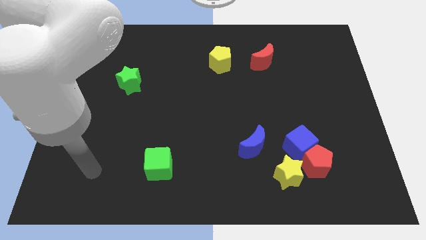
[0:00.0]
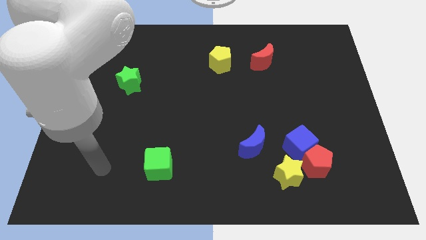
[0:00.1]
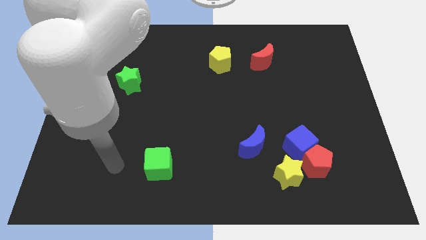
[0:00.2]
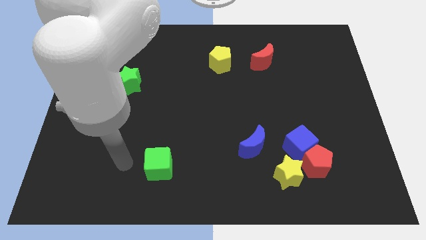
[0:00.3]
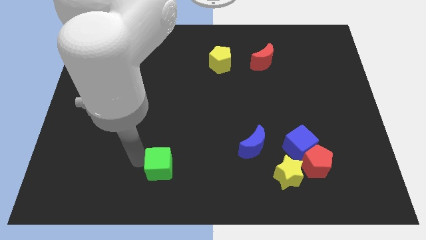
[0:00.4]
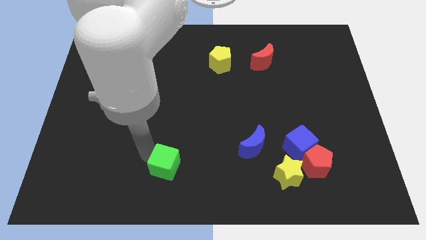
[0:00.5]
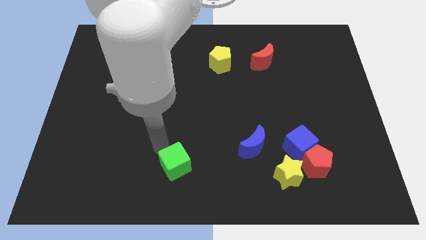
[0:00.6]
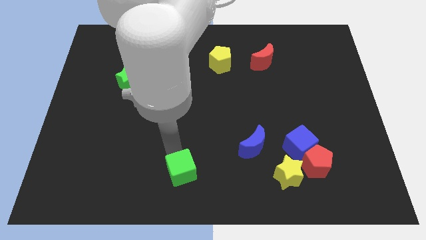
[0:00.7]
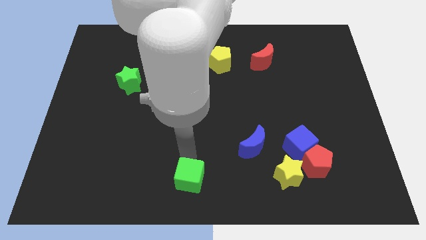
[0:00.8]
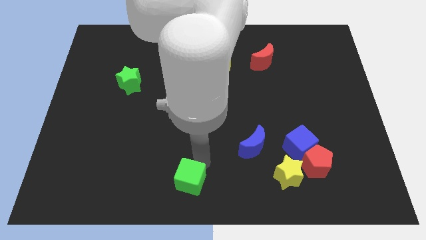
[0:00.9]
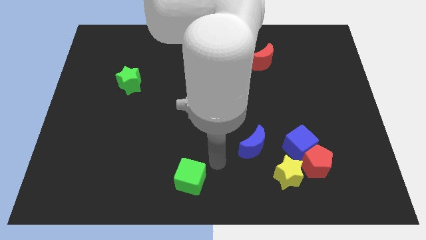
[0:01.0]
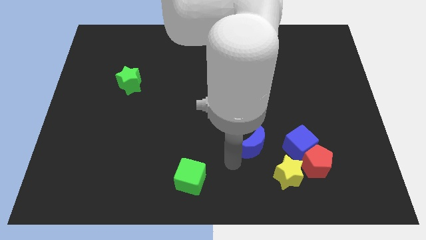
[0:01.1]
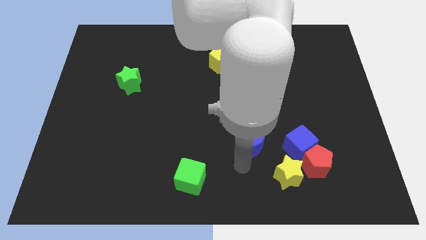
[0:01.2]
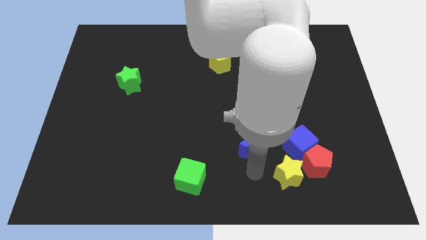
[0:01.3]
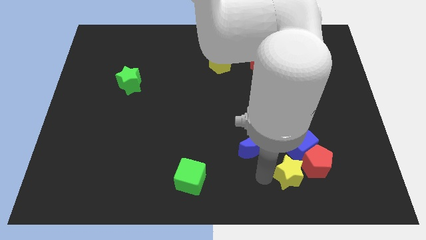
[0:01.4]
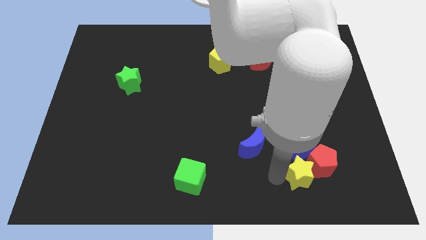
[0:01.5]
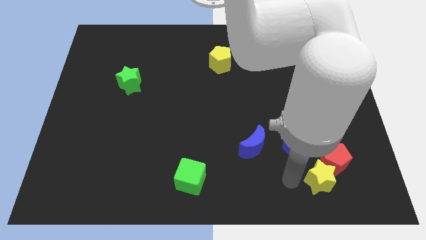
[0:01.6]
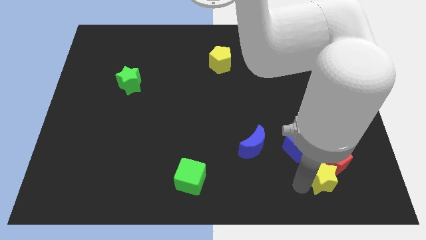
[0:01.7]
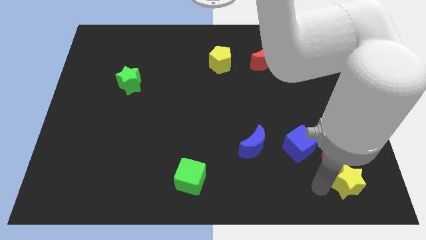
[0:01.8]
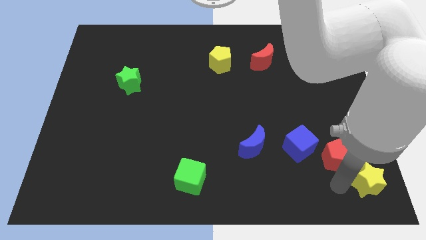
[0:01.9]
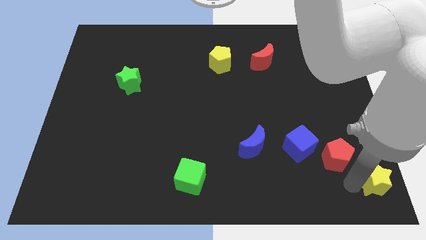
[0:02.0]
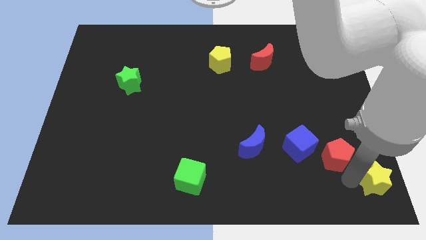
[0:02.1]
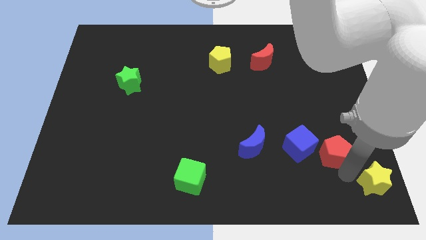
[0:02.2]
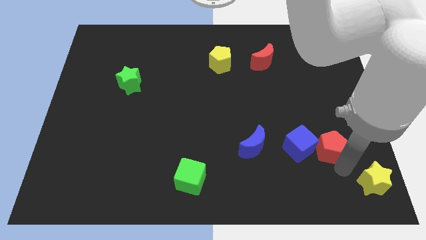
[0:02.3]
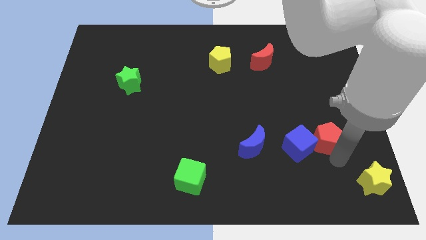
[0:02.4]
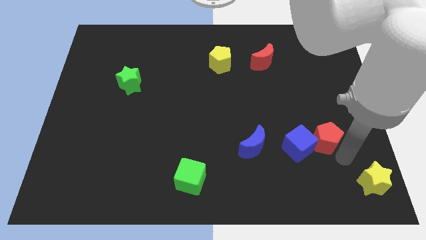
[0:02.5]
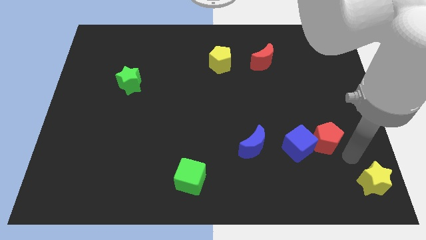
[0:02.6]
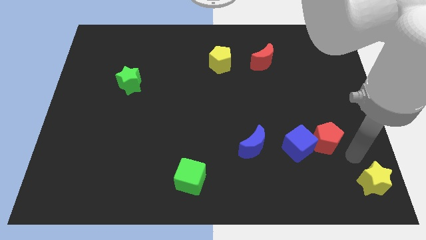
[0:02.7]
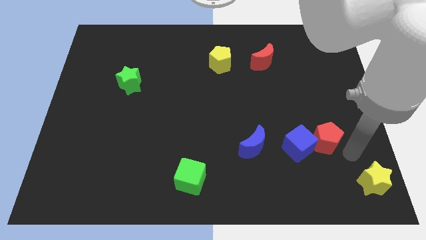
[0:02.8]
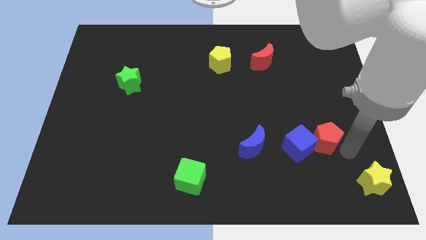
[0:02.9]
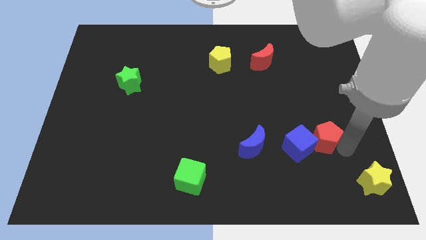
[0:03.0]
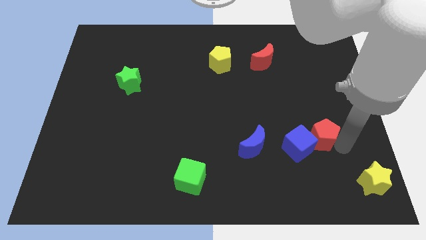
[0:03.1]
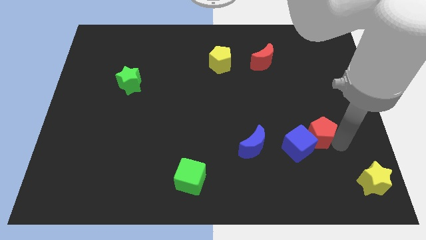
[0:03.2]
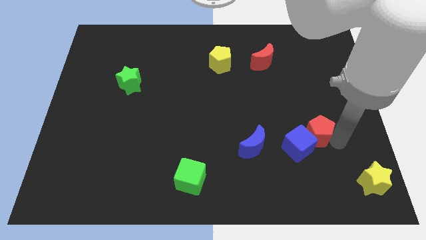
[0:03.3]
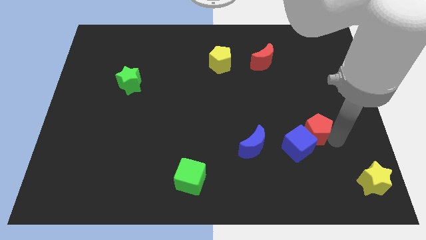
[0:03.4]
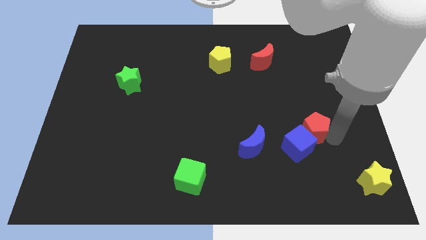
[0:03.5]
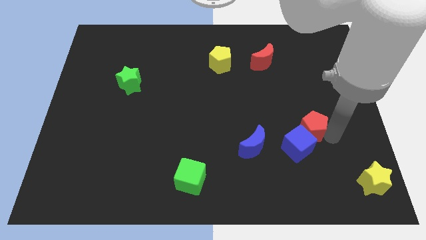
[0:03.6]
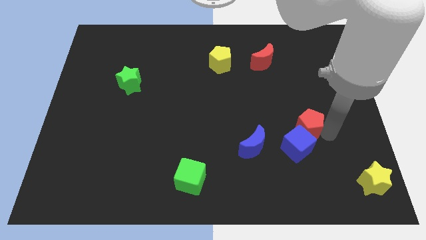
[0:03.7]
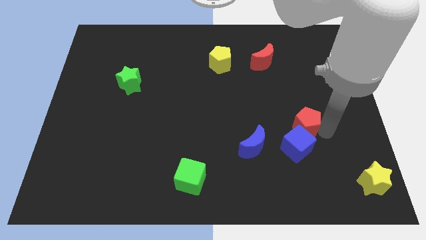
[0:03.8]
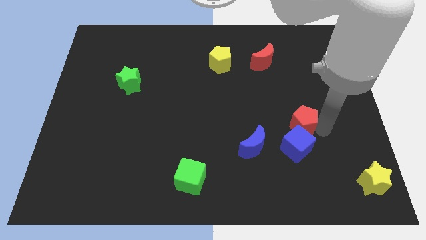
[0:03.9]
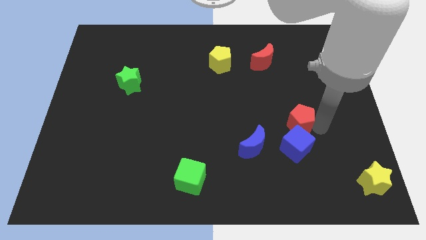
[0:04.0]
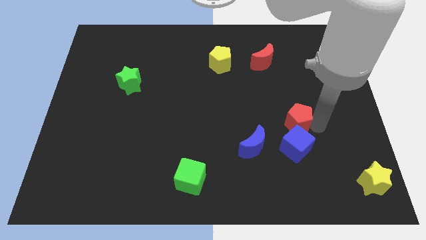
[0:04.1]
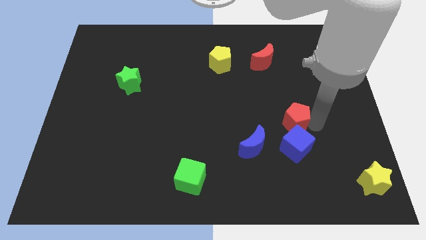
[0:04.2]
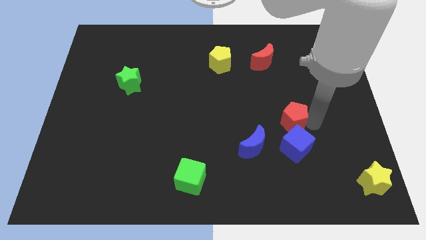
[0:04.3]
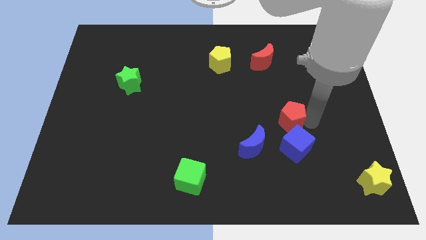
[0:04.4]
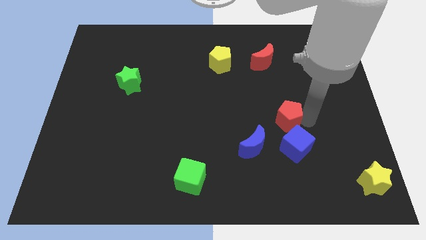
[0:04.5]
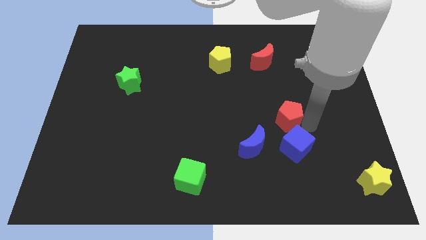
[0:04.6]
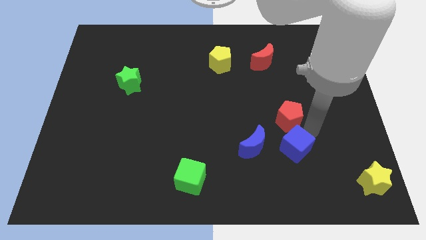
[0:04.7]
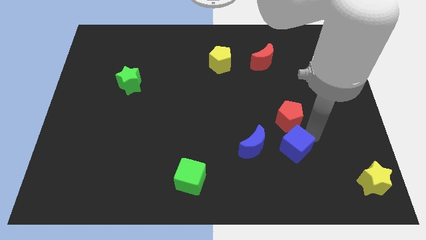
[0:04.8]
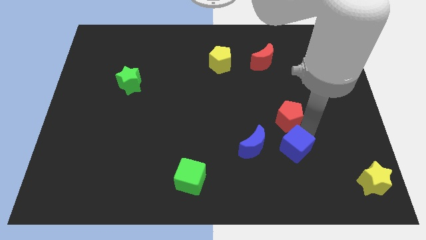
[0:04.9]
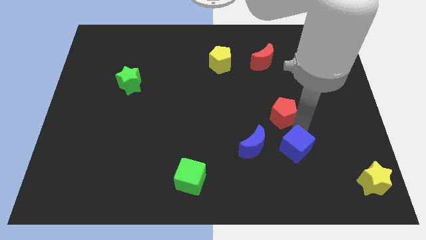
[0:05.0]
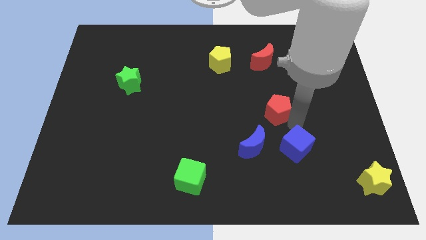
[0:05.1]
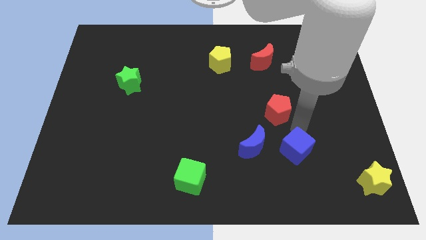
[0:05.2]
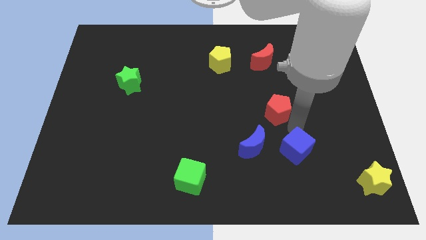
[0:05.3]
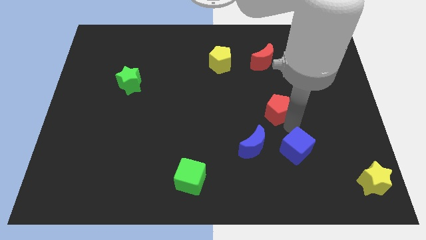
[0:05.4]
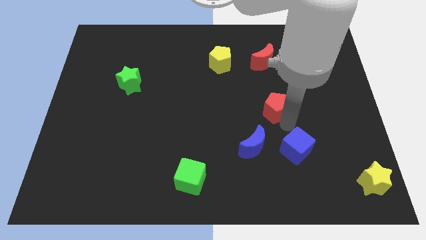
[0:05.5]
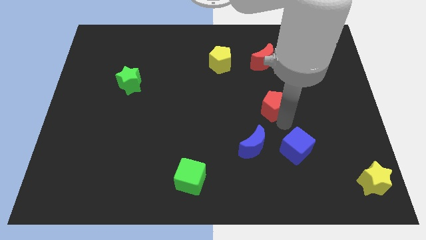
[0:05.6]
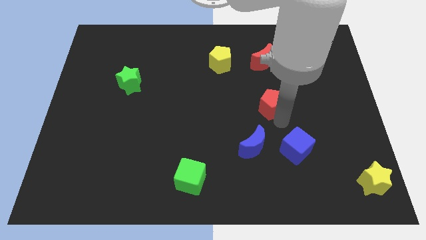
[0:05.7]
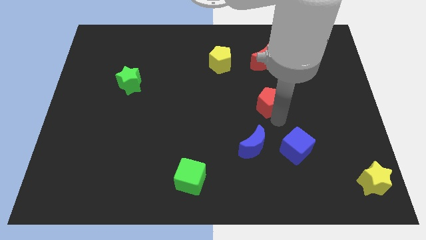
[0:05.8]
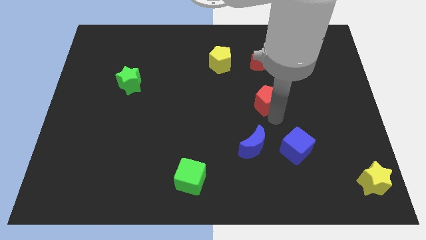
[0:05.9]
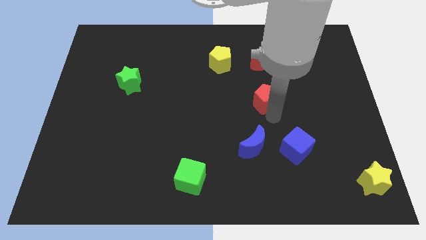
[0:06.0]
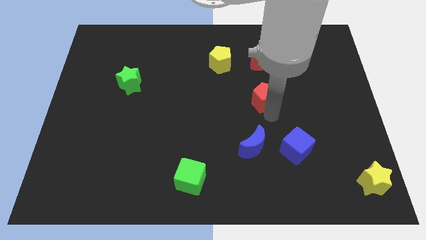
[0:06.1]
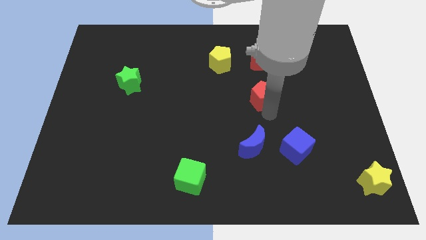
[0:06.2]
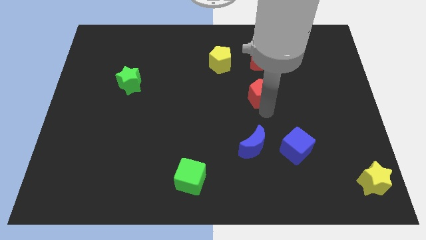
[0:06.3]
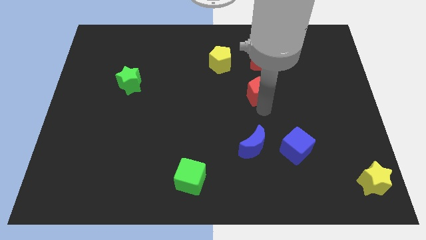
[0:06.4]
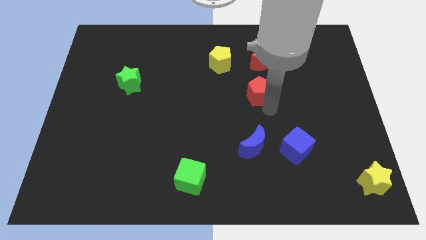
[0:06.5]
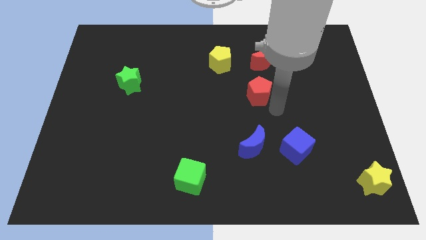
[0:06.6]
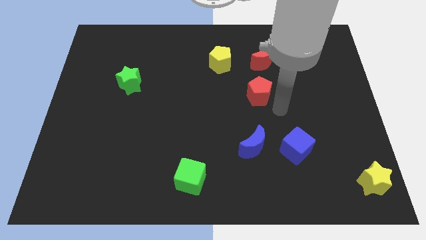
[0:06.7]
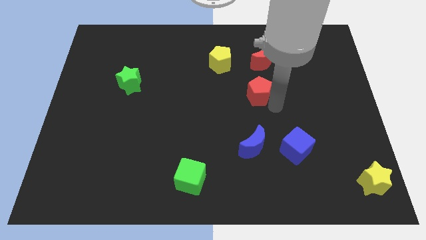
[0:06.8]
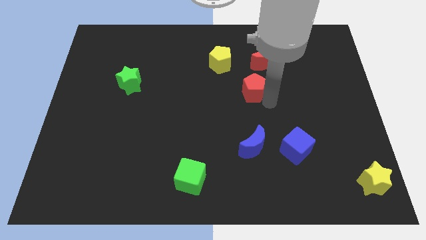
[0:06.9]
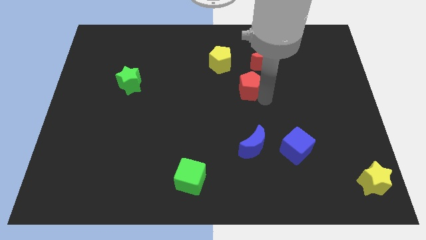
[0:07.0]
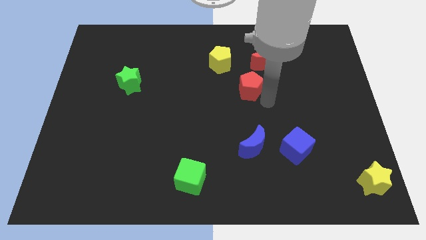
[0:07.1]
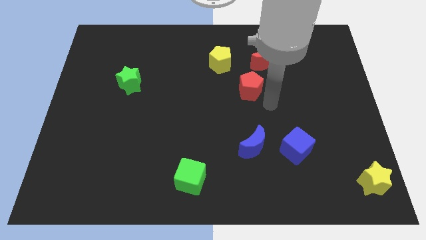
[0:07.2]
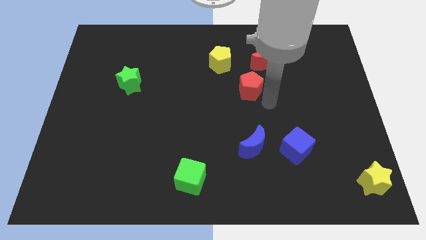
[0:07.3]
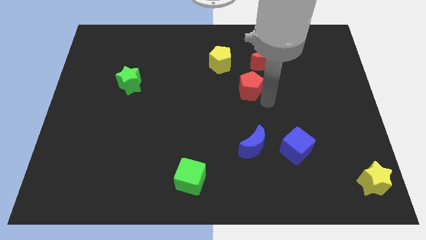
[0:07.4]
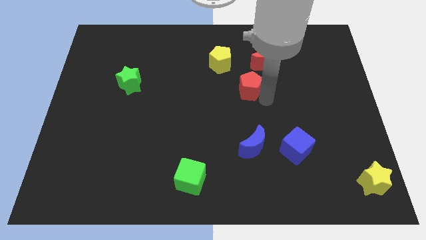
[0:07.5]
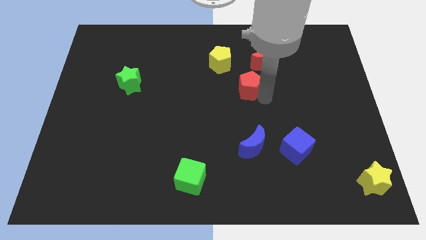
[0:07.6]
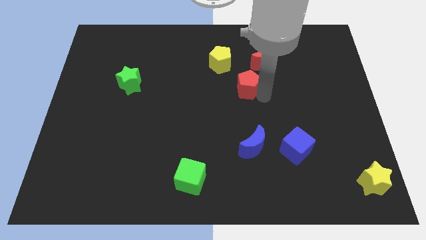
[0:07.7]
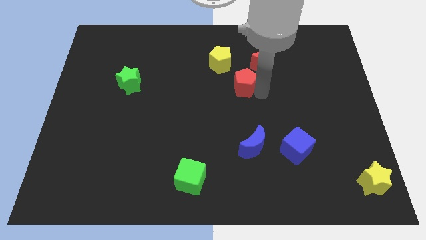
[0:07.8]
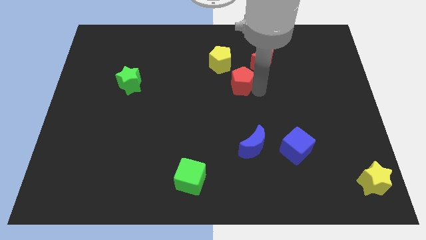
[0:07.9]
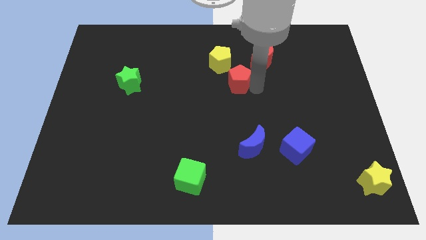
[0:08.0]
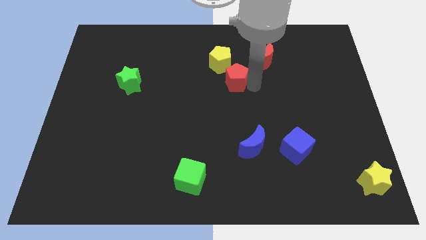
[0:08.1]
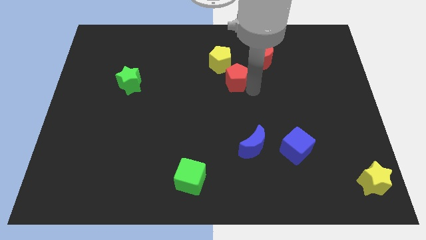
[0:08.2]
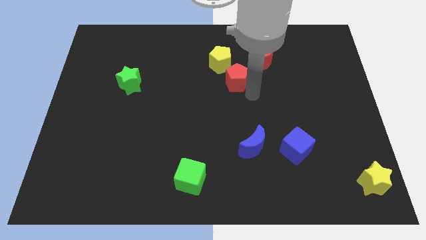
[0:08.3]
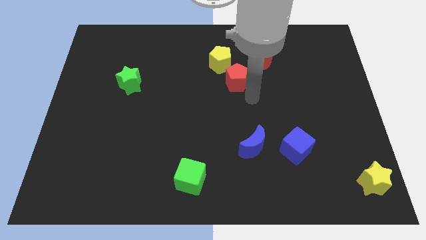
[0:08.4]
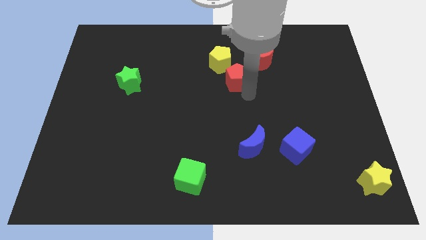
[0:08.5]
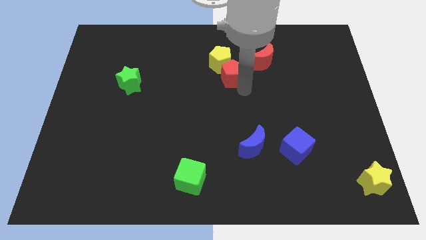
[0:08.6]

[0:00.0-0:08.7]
put the red pentagon close to the yellow pentagon
